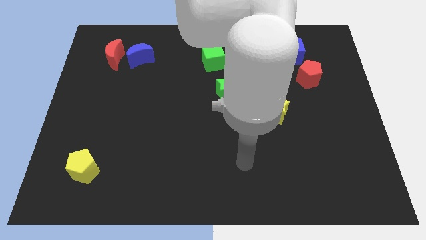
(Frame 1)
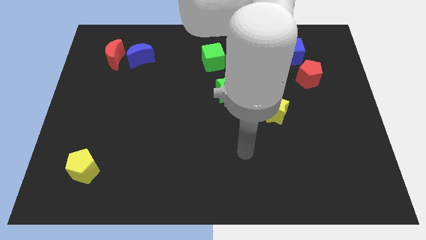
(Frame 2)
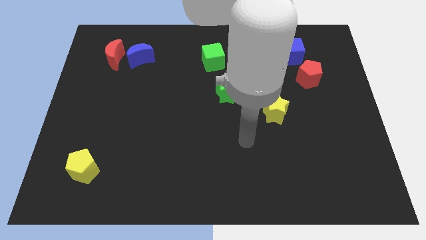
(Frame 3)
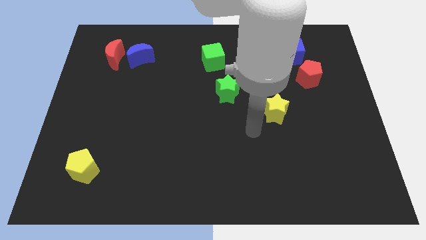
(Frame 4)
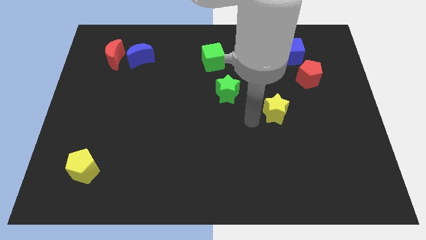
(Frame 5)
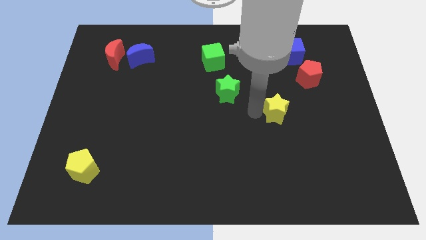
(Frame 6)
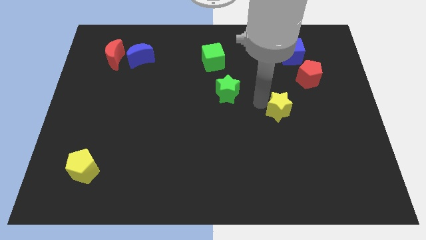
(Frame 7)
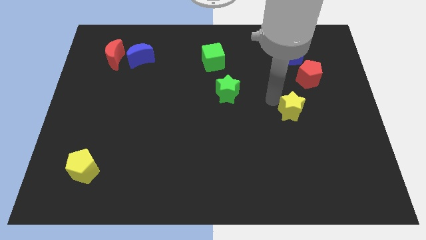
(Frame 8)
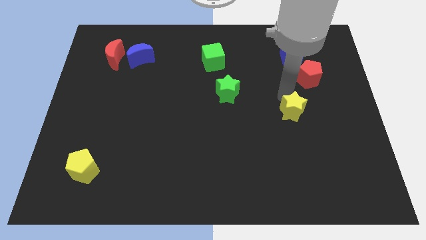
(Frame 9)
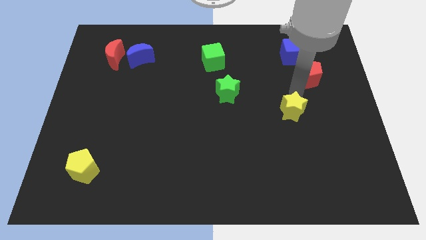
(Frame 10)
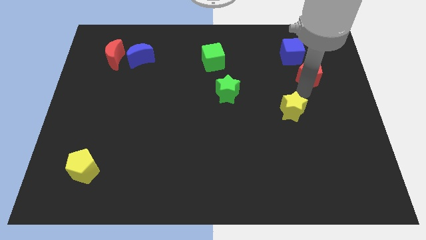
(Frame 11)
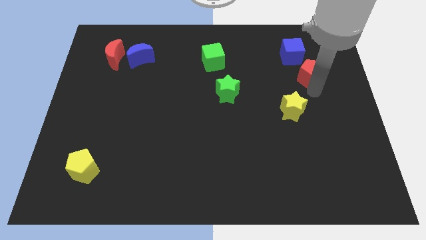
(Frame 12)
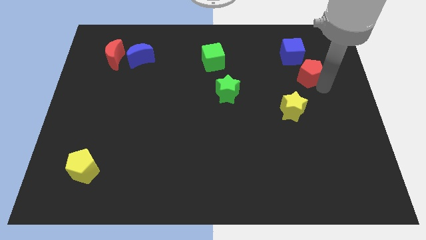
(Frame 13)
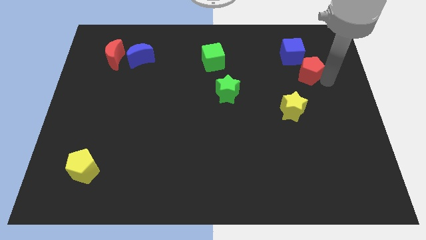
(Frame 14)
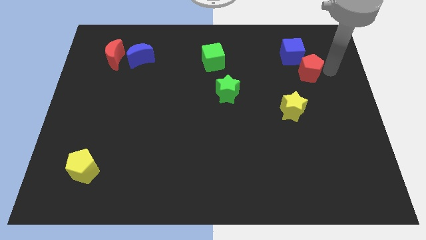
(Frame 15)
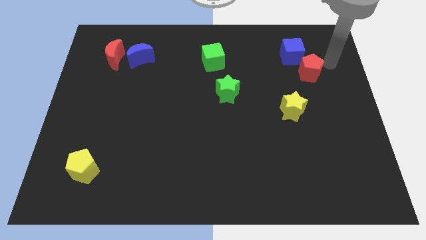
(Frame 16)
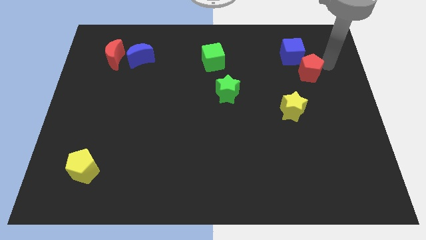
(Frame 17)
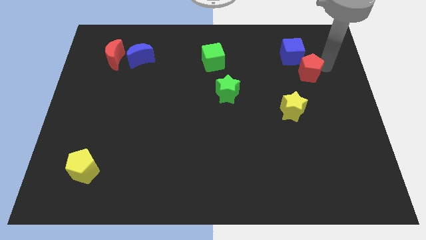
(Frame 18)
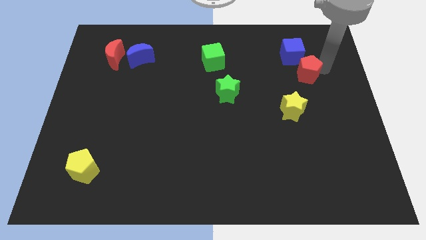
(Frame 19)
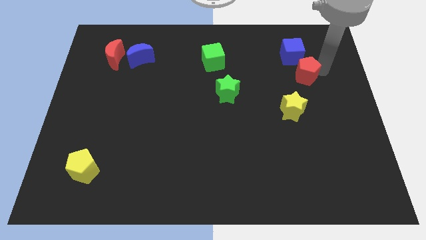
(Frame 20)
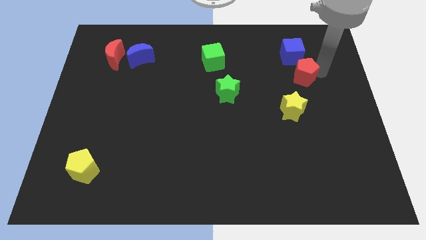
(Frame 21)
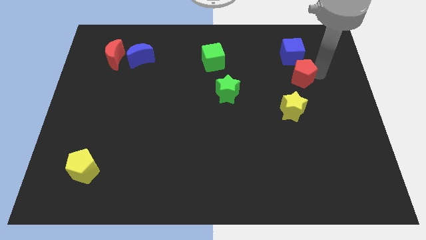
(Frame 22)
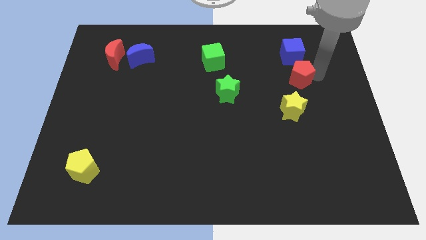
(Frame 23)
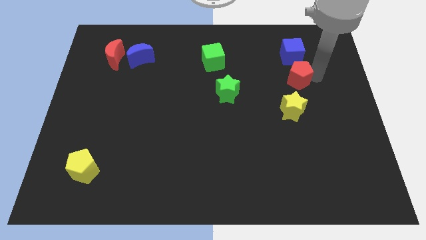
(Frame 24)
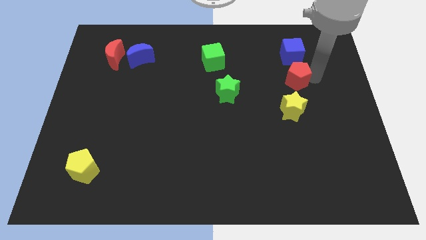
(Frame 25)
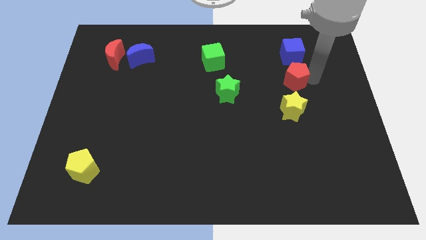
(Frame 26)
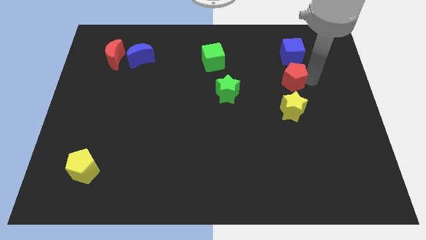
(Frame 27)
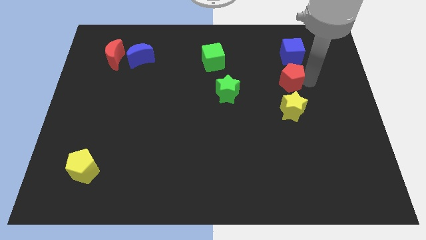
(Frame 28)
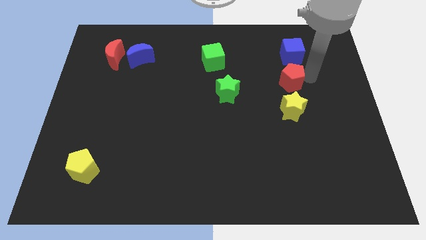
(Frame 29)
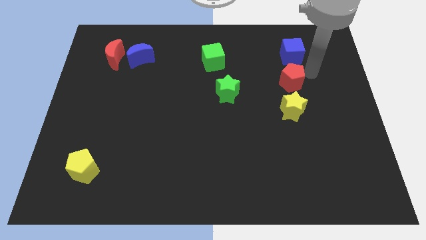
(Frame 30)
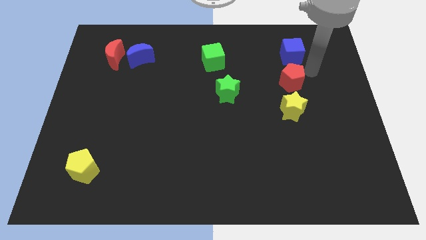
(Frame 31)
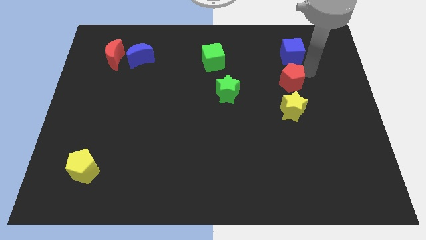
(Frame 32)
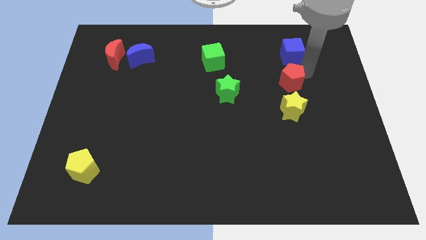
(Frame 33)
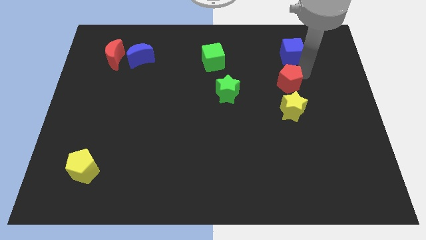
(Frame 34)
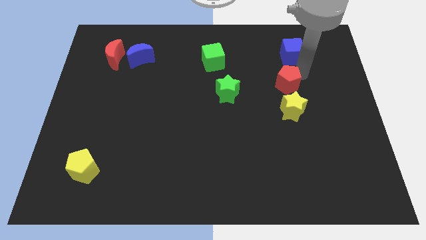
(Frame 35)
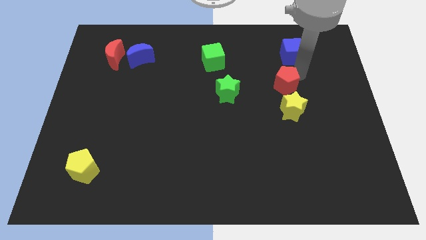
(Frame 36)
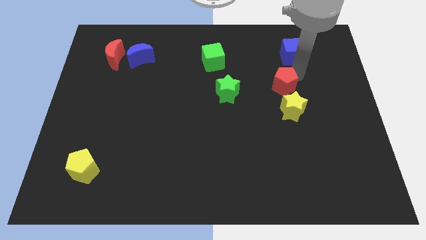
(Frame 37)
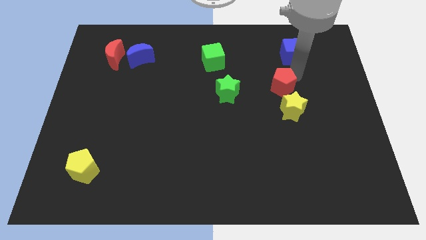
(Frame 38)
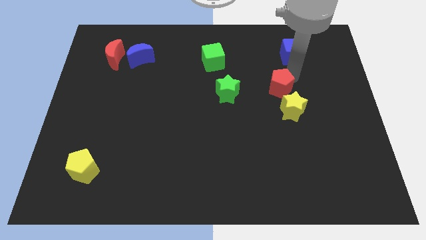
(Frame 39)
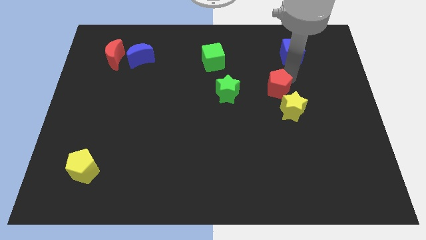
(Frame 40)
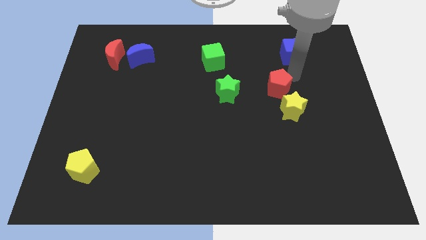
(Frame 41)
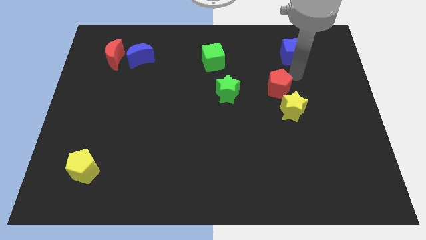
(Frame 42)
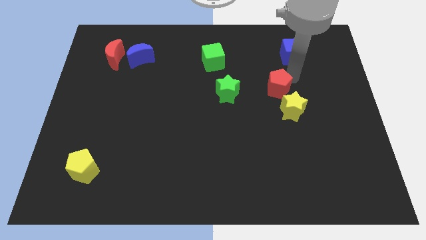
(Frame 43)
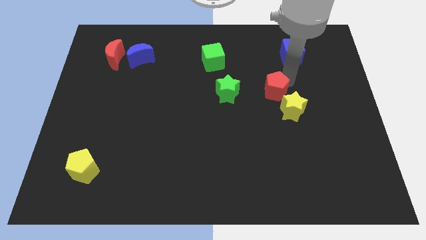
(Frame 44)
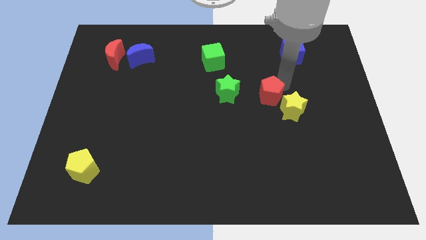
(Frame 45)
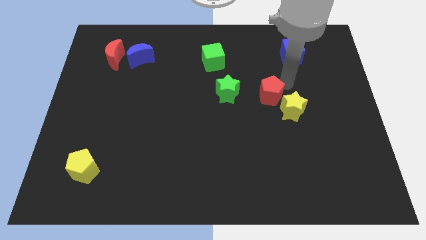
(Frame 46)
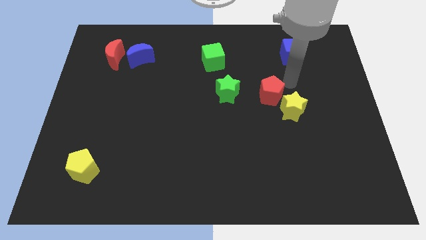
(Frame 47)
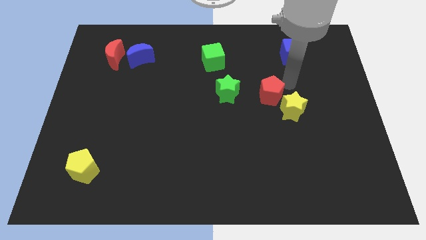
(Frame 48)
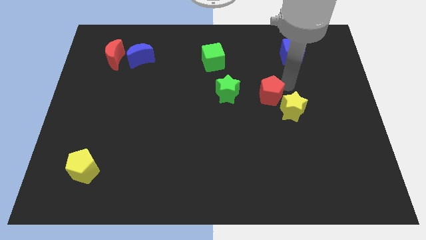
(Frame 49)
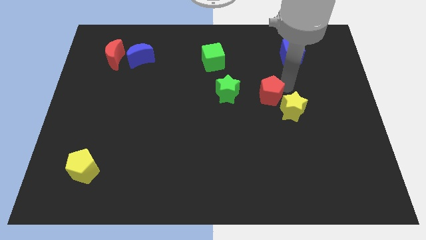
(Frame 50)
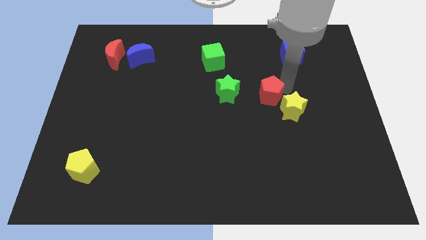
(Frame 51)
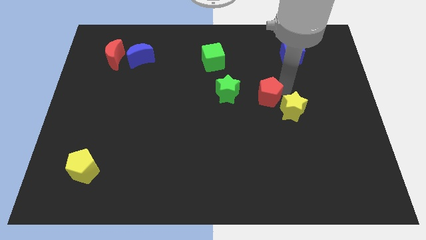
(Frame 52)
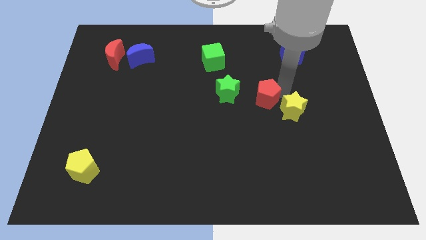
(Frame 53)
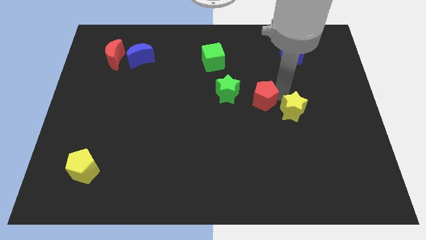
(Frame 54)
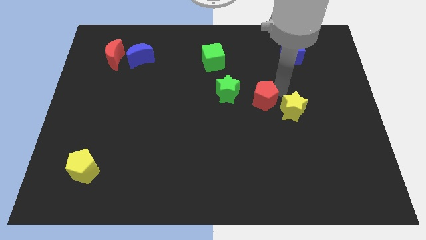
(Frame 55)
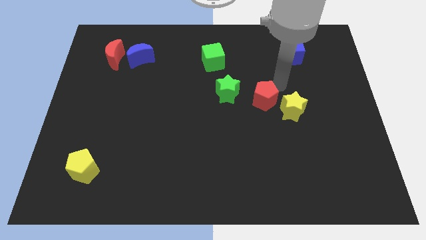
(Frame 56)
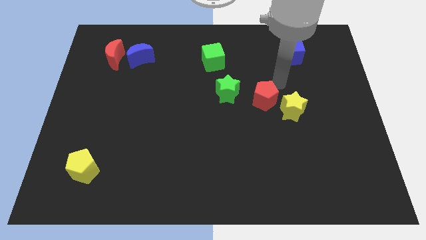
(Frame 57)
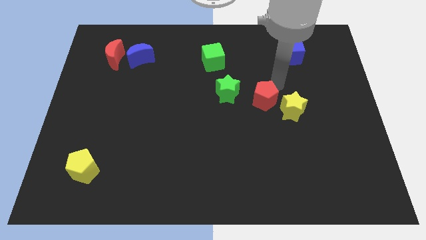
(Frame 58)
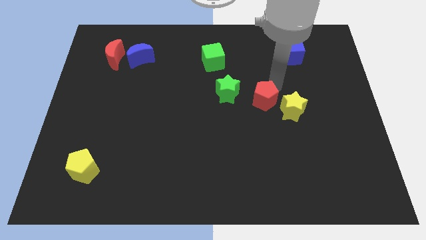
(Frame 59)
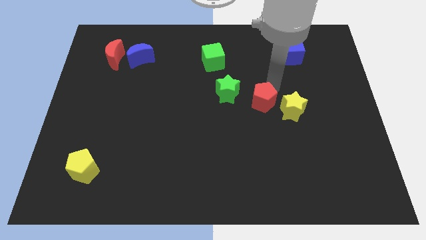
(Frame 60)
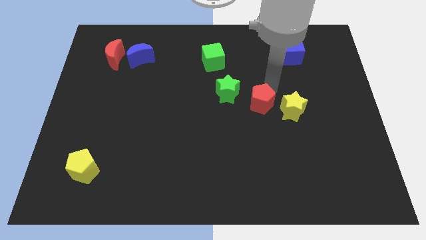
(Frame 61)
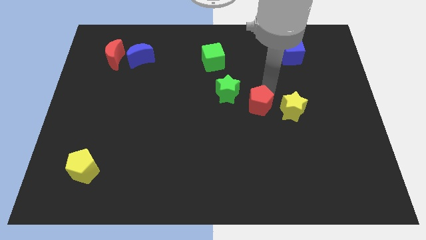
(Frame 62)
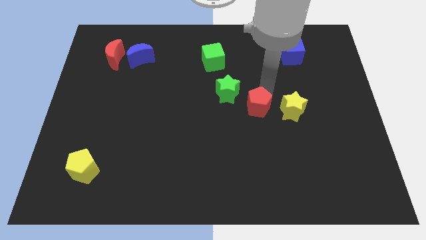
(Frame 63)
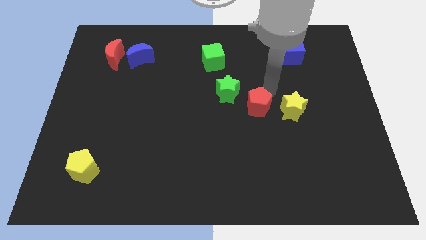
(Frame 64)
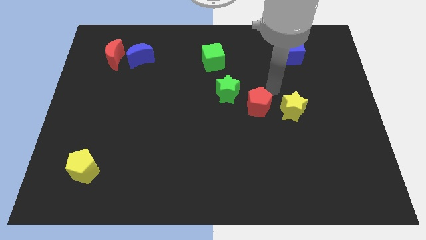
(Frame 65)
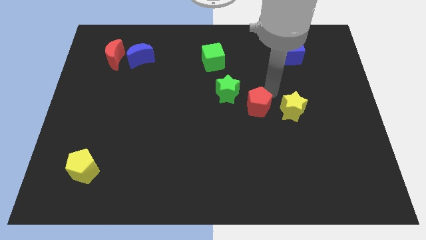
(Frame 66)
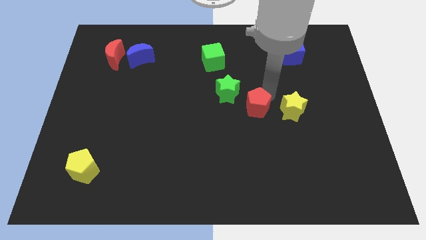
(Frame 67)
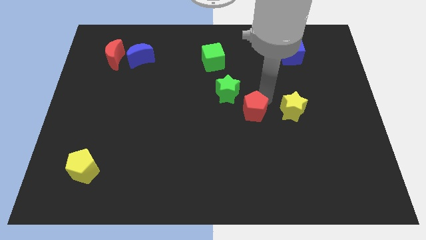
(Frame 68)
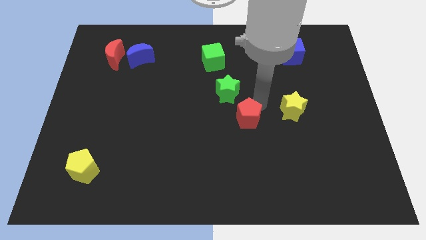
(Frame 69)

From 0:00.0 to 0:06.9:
push the red pentagon diagonally down and to the left

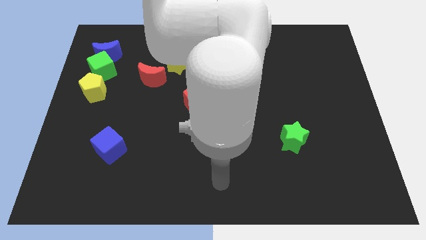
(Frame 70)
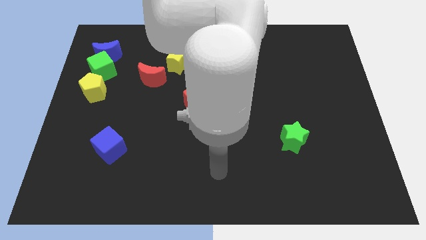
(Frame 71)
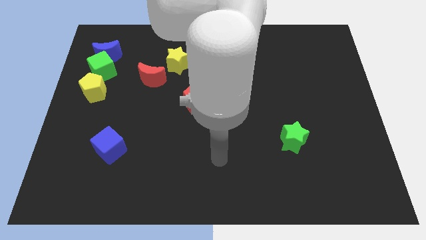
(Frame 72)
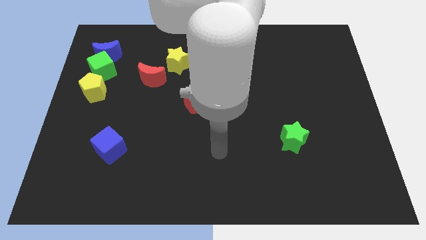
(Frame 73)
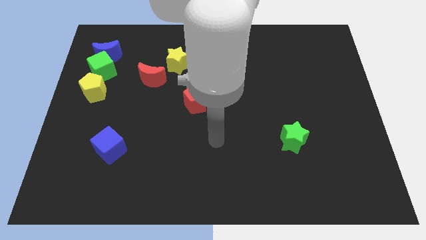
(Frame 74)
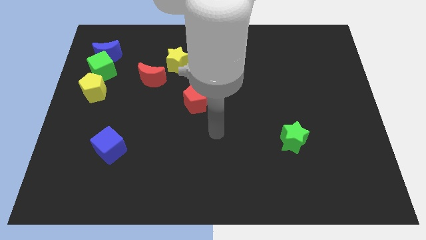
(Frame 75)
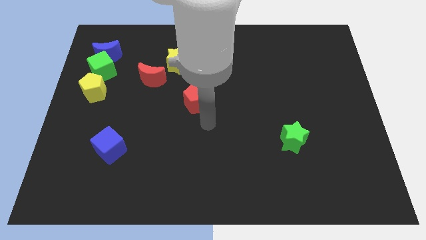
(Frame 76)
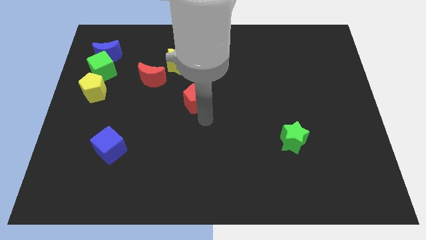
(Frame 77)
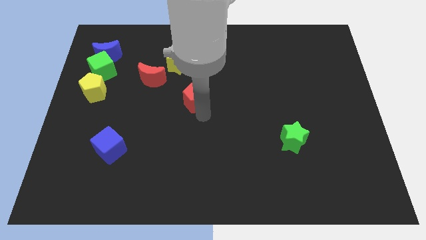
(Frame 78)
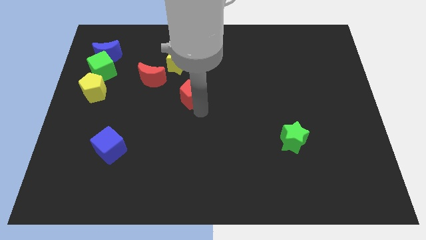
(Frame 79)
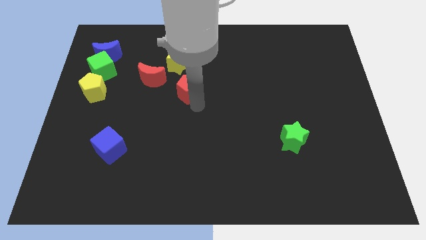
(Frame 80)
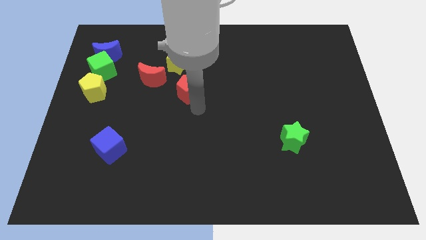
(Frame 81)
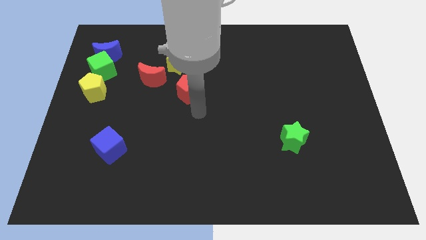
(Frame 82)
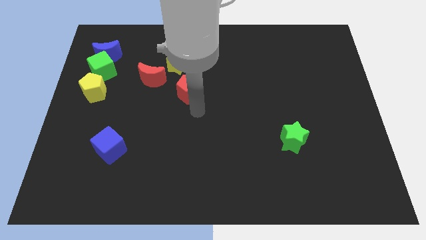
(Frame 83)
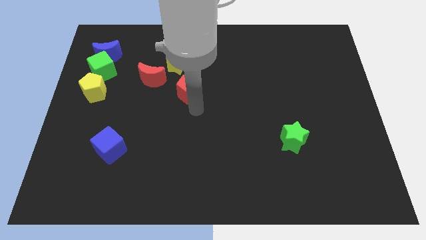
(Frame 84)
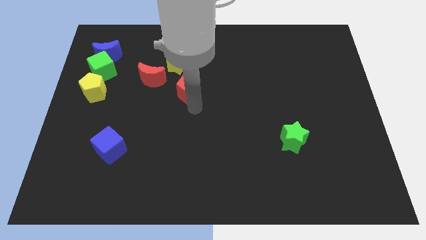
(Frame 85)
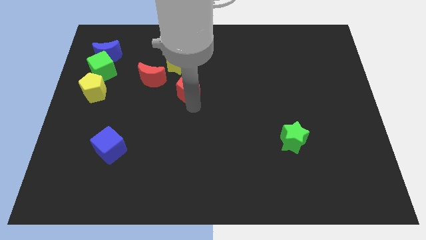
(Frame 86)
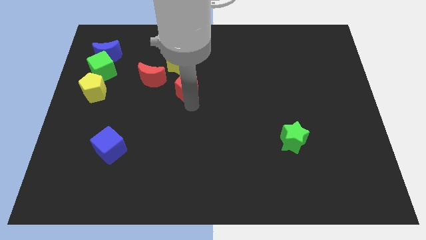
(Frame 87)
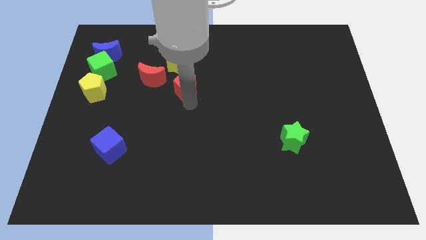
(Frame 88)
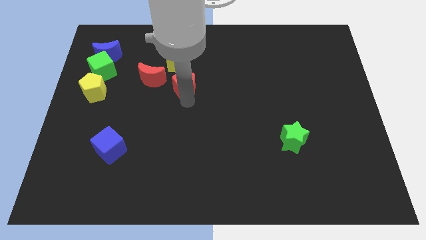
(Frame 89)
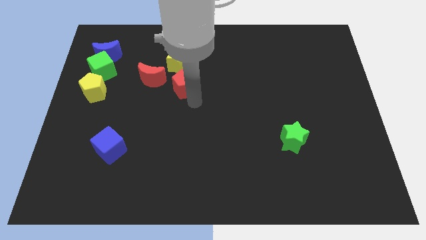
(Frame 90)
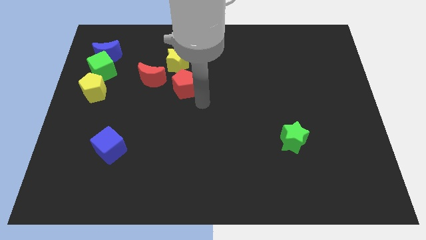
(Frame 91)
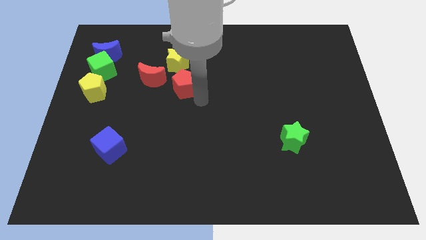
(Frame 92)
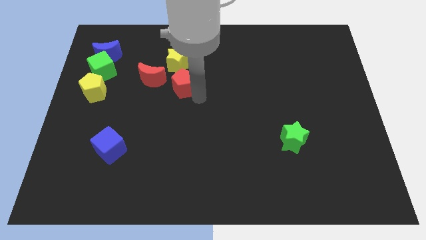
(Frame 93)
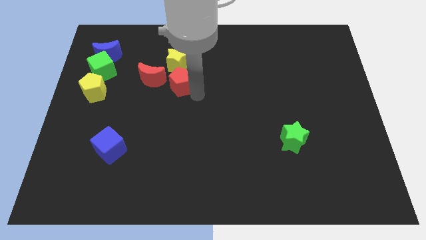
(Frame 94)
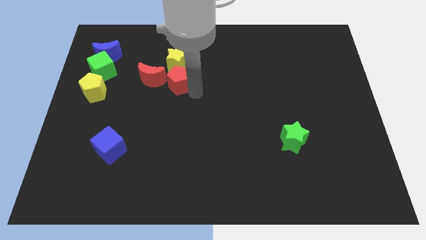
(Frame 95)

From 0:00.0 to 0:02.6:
slightly move the red pentagon up and left diagonally
